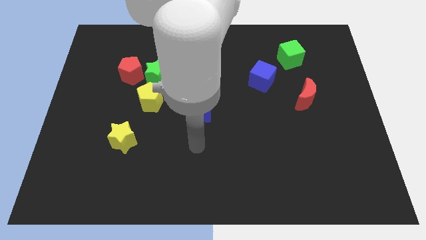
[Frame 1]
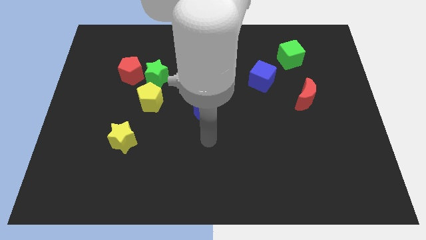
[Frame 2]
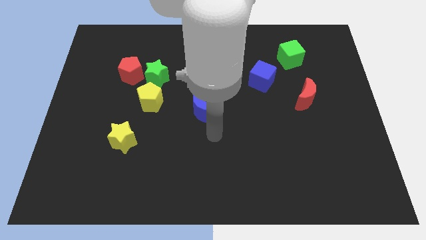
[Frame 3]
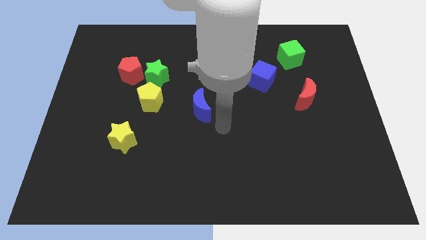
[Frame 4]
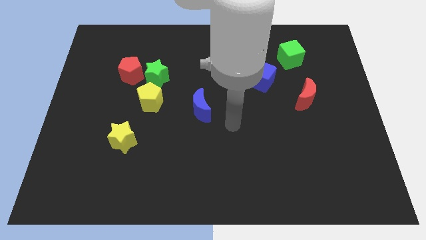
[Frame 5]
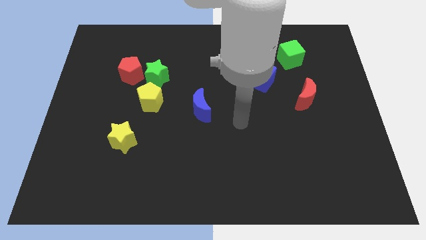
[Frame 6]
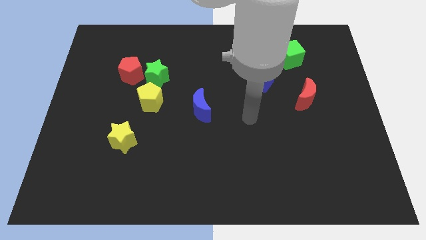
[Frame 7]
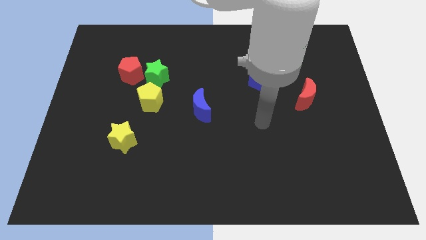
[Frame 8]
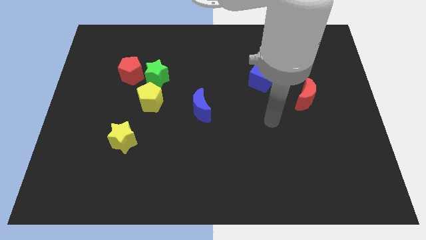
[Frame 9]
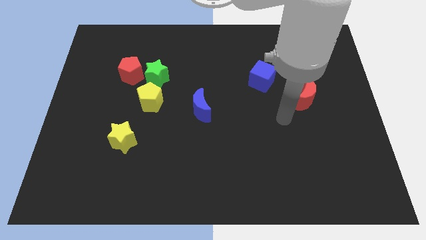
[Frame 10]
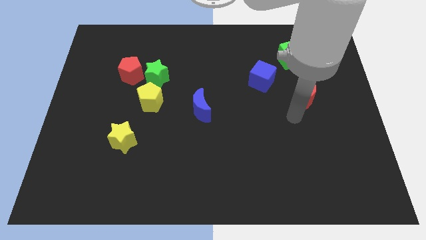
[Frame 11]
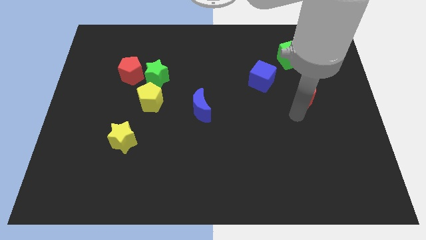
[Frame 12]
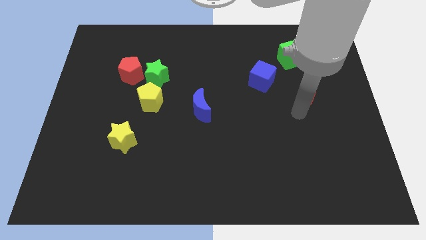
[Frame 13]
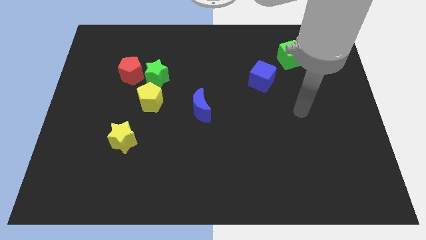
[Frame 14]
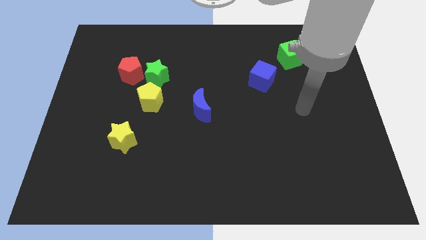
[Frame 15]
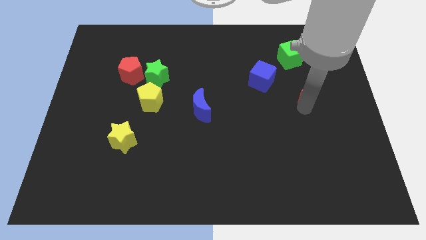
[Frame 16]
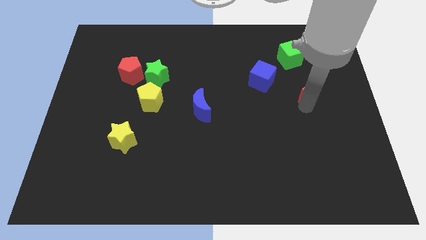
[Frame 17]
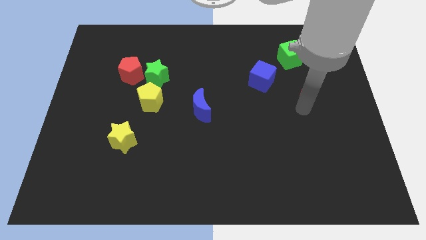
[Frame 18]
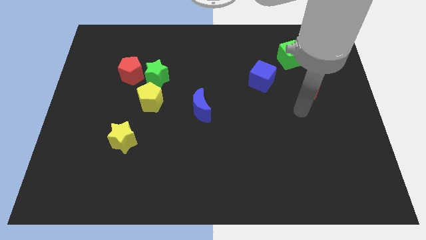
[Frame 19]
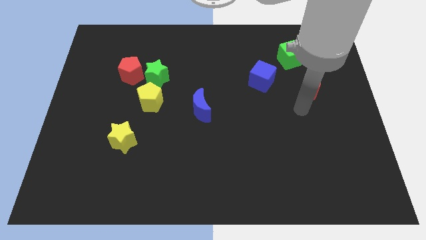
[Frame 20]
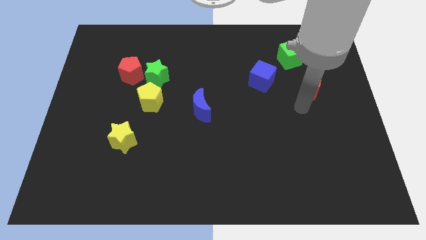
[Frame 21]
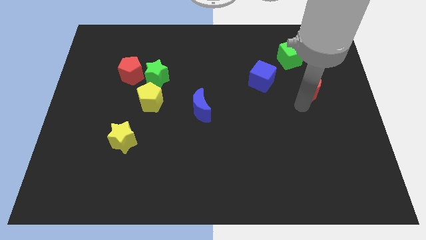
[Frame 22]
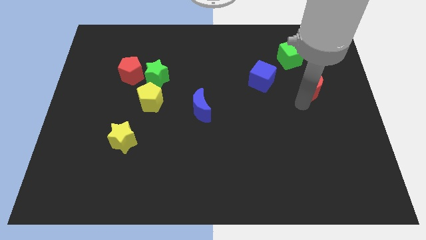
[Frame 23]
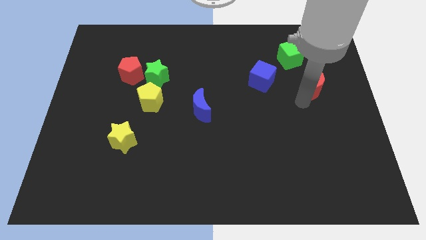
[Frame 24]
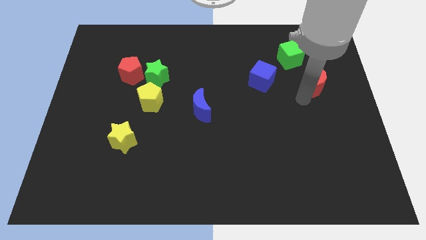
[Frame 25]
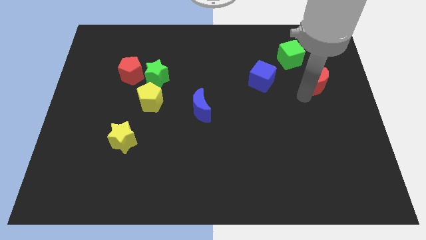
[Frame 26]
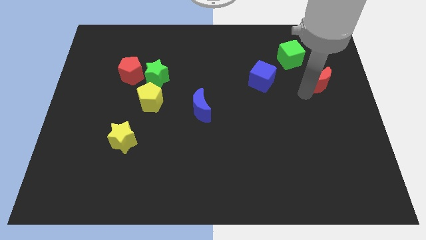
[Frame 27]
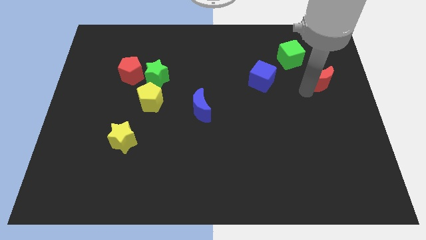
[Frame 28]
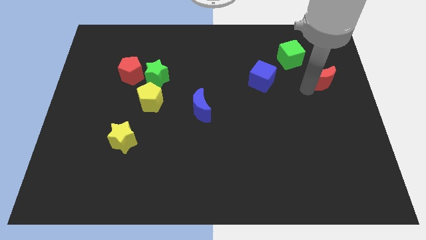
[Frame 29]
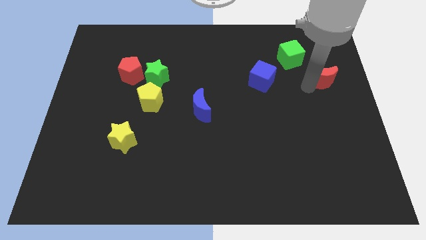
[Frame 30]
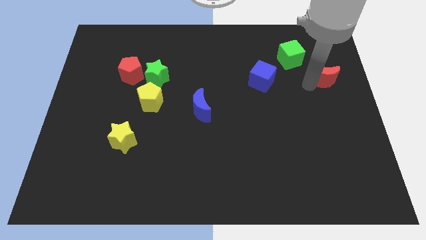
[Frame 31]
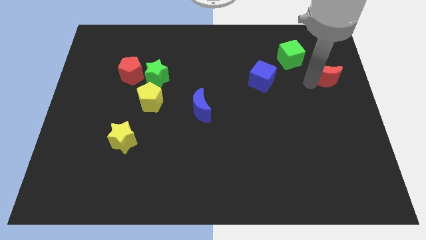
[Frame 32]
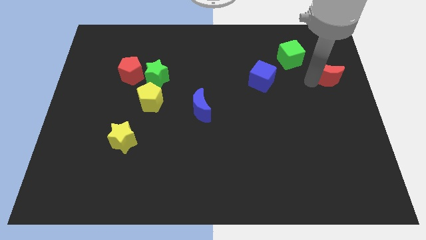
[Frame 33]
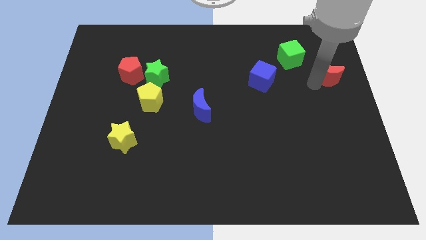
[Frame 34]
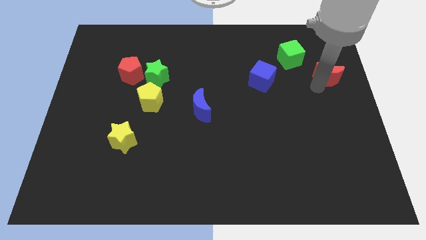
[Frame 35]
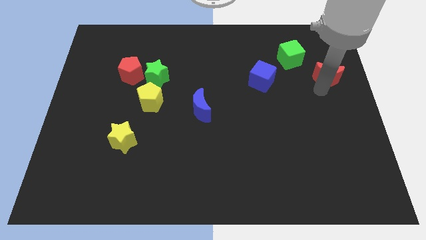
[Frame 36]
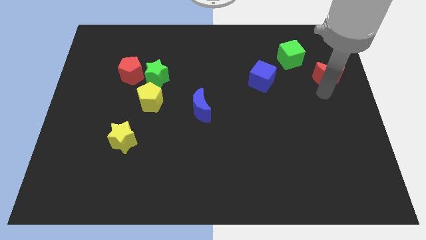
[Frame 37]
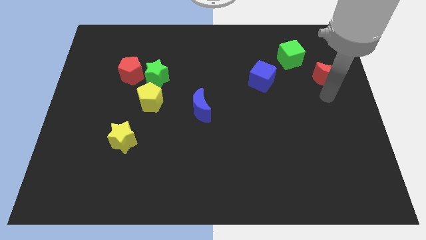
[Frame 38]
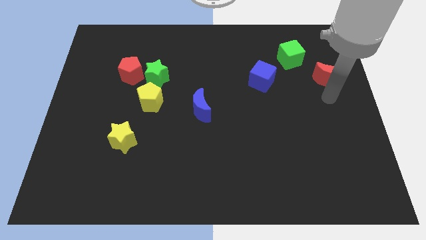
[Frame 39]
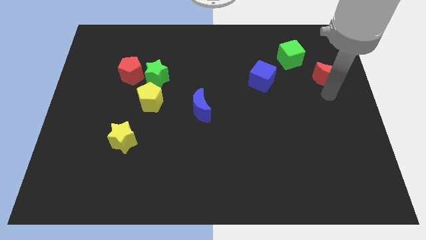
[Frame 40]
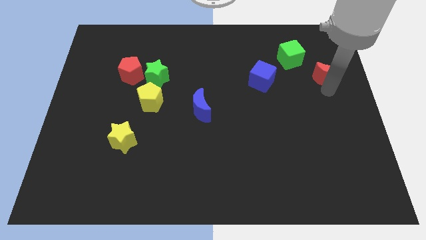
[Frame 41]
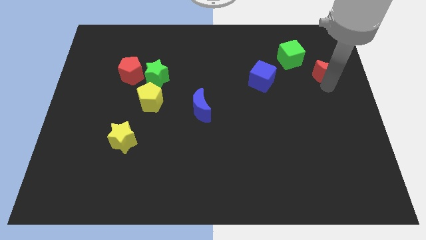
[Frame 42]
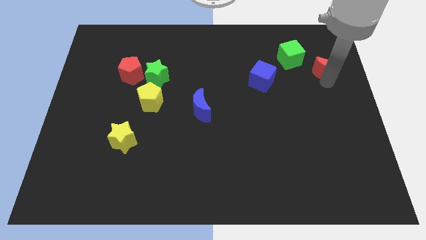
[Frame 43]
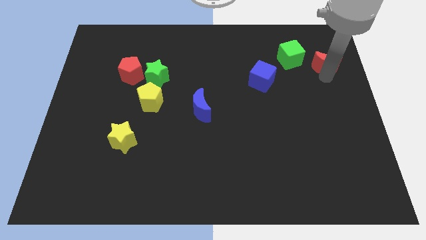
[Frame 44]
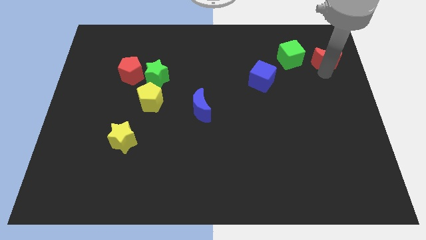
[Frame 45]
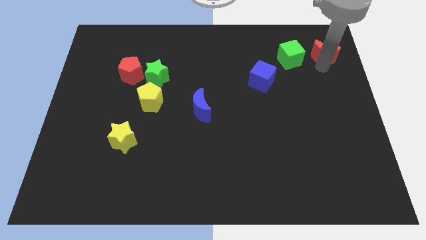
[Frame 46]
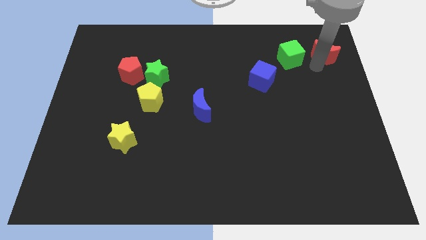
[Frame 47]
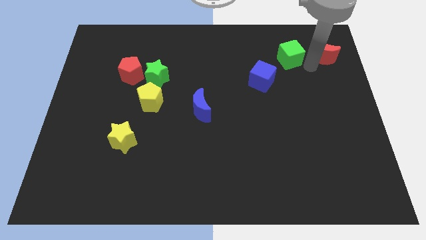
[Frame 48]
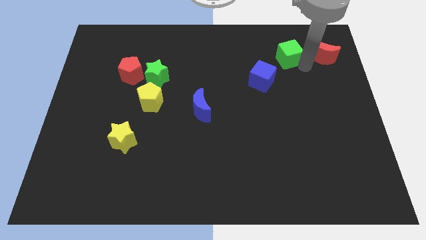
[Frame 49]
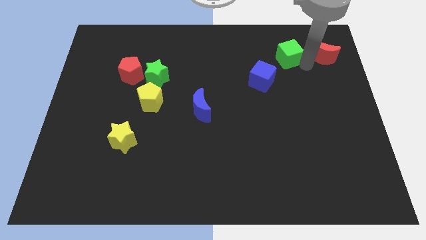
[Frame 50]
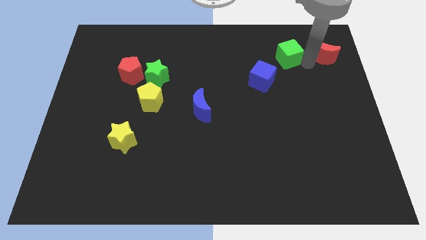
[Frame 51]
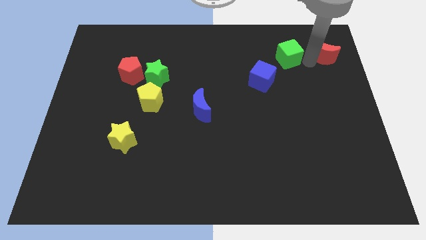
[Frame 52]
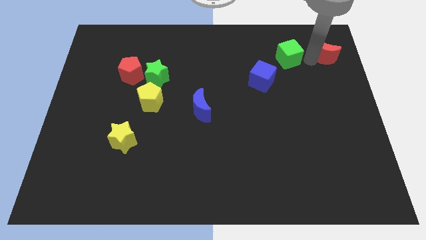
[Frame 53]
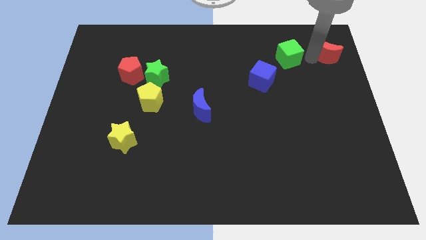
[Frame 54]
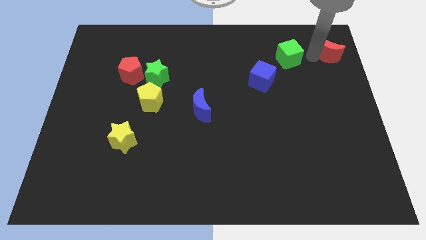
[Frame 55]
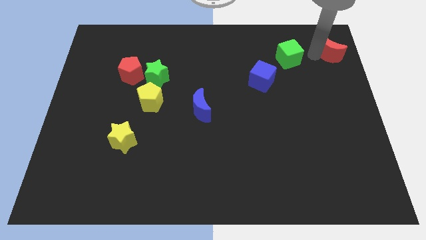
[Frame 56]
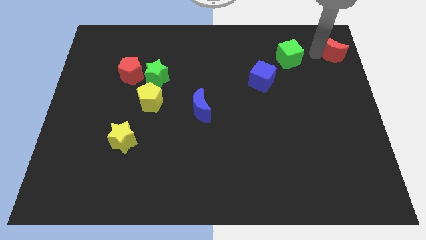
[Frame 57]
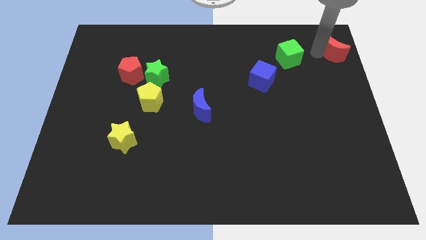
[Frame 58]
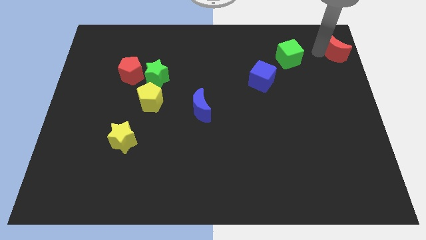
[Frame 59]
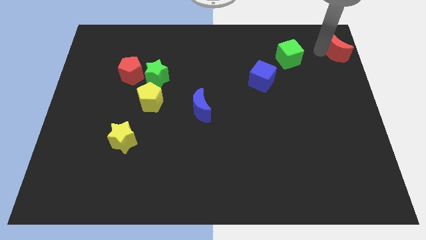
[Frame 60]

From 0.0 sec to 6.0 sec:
slide the red moon to the top right
